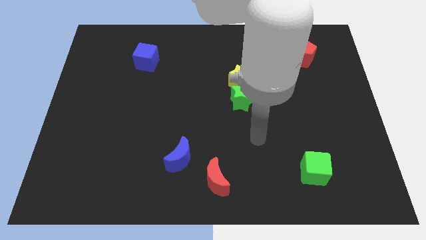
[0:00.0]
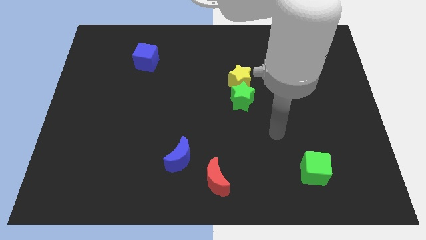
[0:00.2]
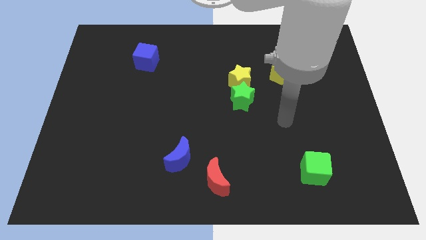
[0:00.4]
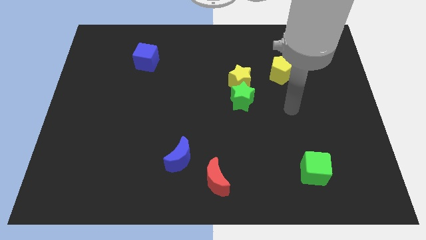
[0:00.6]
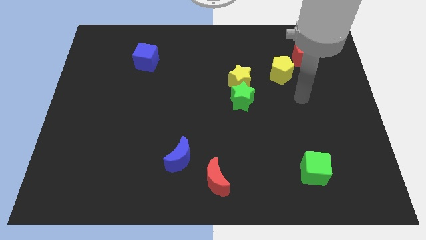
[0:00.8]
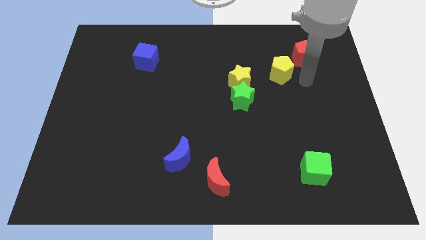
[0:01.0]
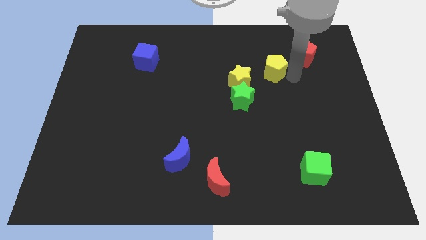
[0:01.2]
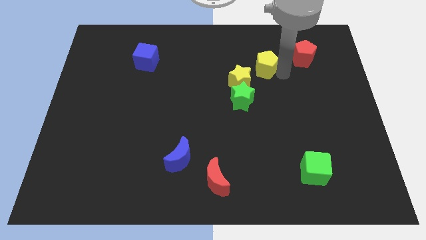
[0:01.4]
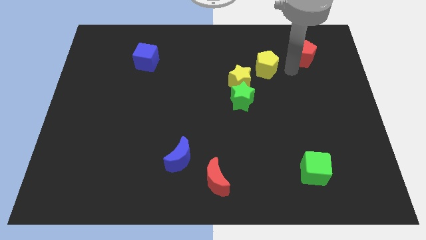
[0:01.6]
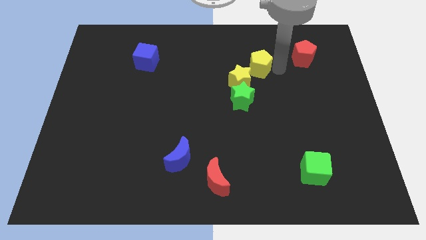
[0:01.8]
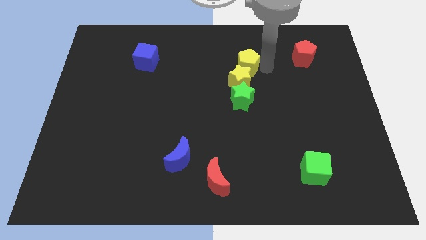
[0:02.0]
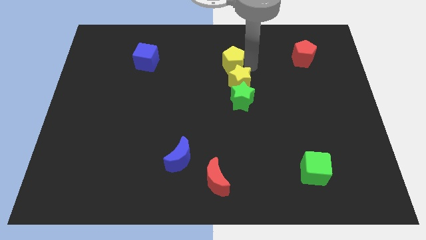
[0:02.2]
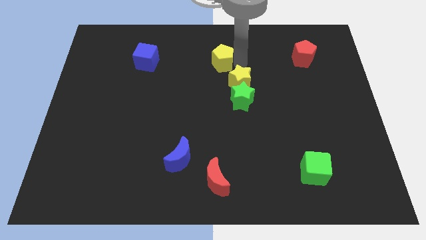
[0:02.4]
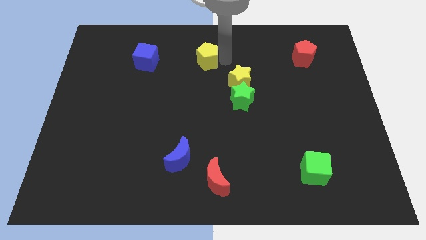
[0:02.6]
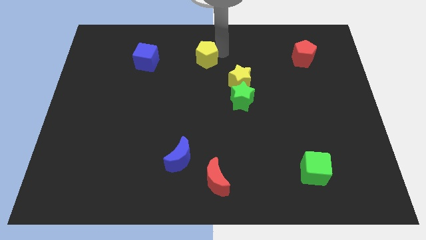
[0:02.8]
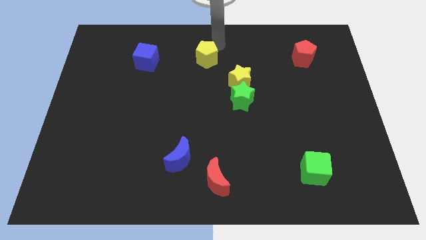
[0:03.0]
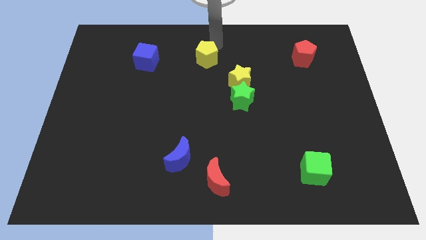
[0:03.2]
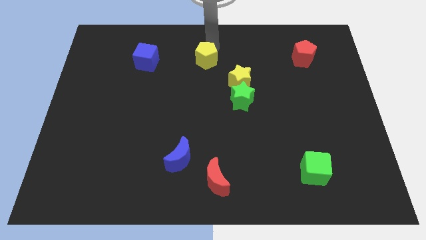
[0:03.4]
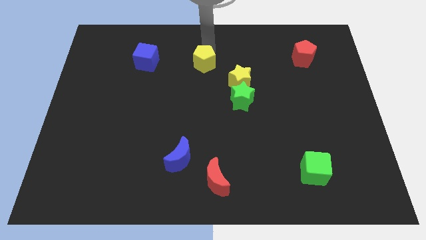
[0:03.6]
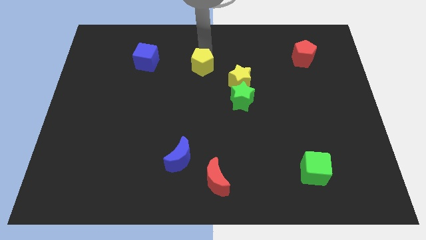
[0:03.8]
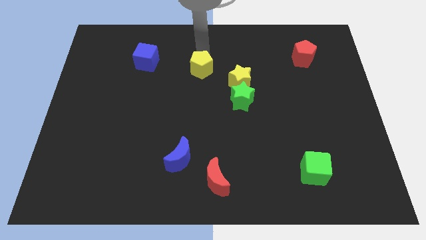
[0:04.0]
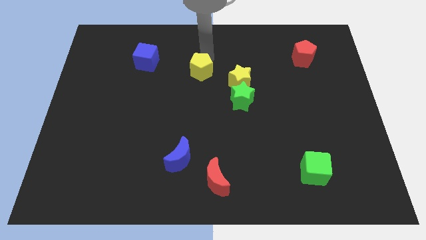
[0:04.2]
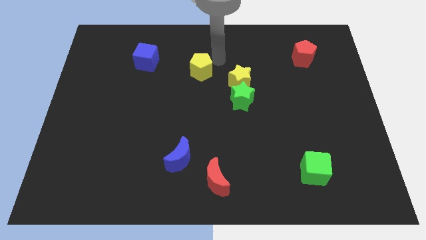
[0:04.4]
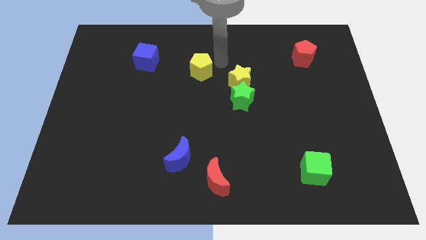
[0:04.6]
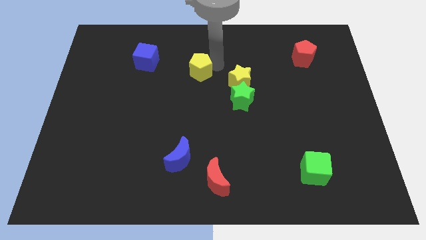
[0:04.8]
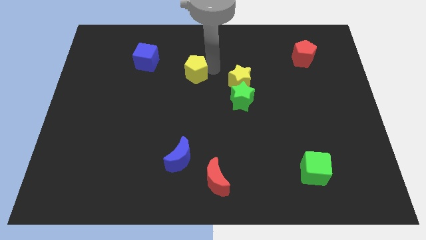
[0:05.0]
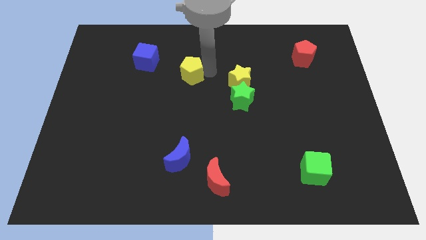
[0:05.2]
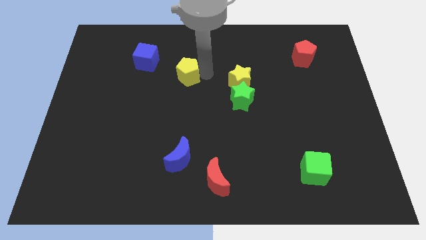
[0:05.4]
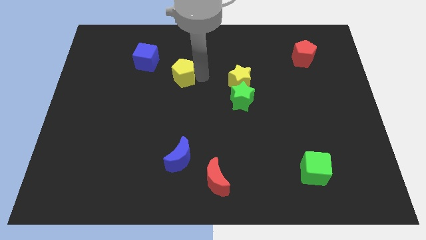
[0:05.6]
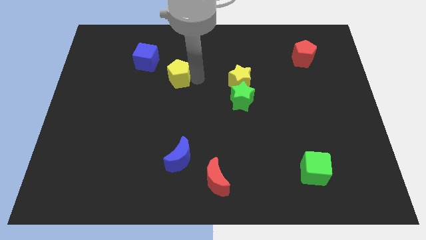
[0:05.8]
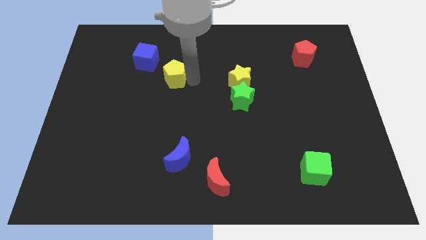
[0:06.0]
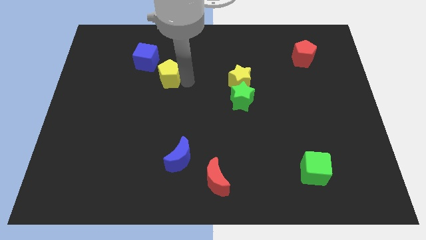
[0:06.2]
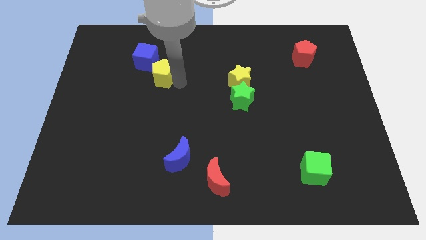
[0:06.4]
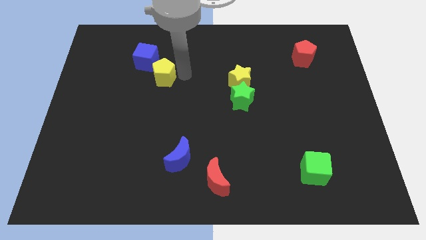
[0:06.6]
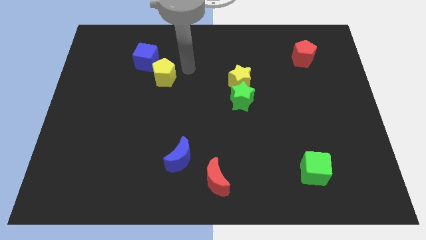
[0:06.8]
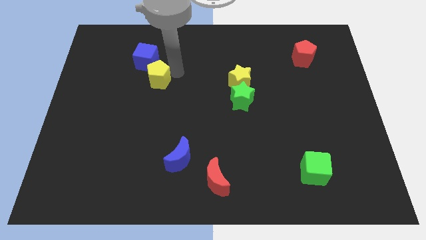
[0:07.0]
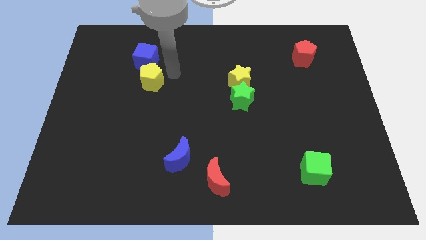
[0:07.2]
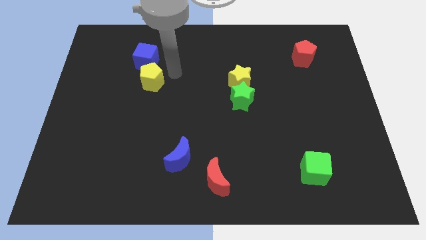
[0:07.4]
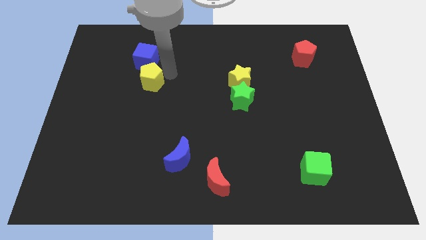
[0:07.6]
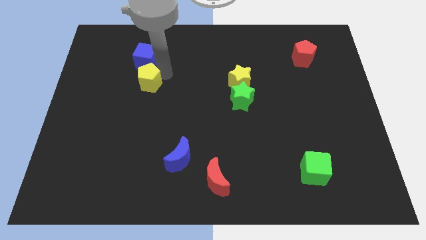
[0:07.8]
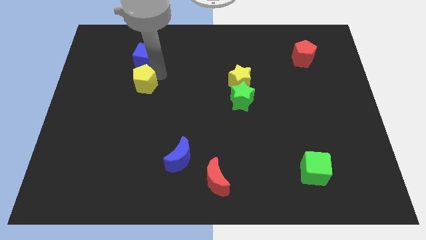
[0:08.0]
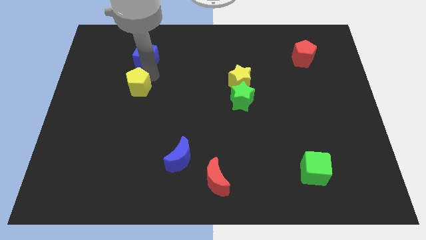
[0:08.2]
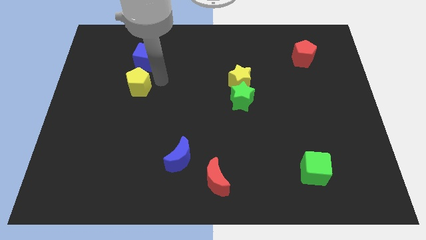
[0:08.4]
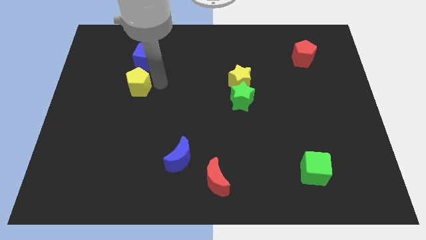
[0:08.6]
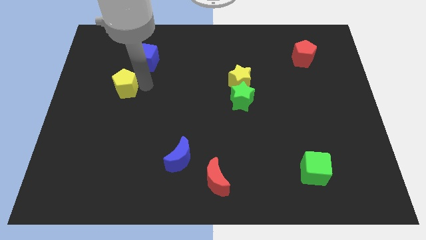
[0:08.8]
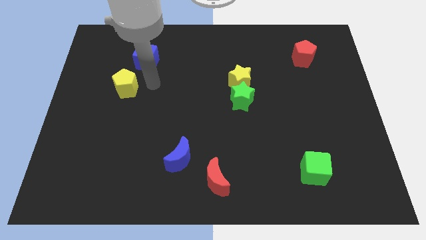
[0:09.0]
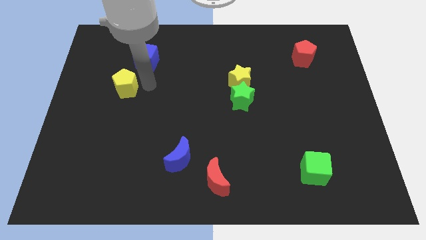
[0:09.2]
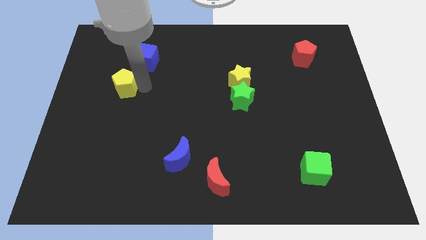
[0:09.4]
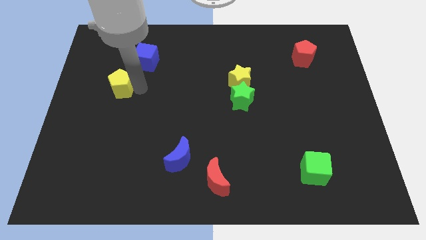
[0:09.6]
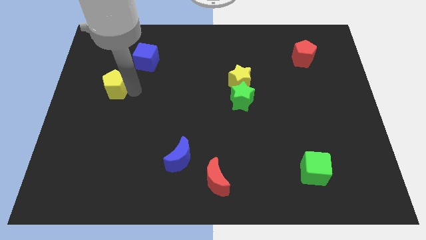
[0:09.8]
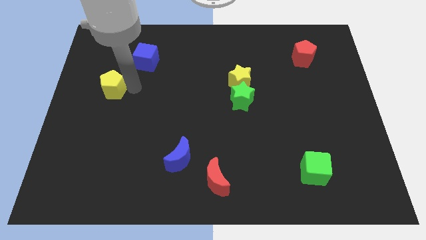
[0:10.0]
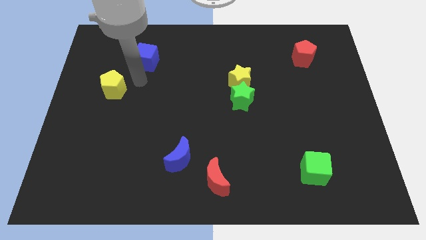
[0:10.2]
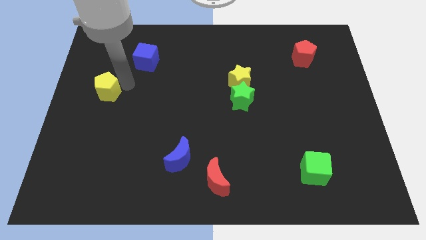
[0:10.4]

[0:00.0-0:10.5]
put the yellow pentagon to the left side of the board

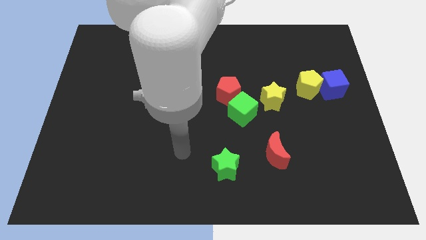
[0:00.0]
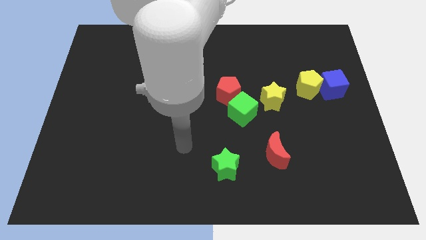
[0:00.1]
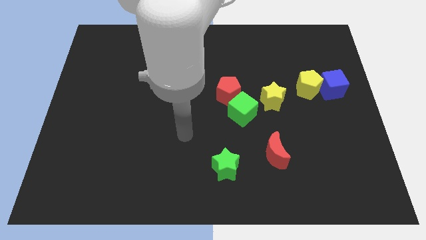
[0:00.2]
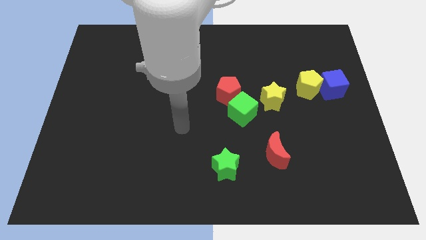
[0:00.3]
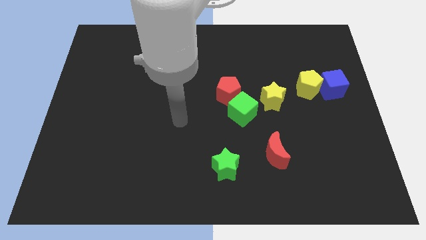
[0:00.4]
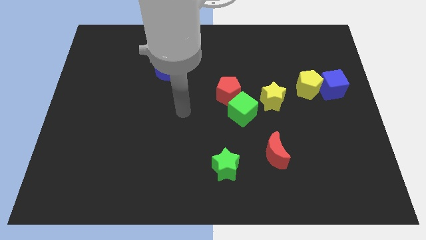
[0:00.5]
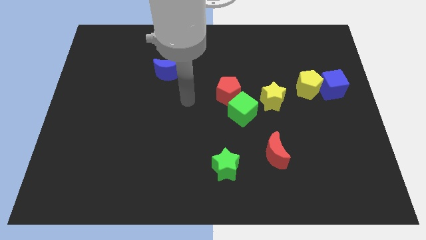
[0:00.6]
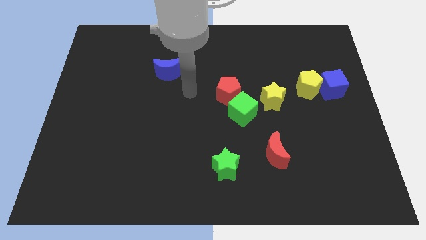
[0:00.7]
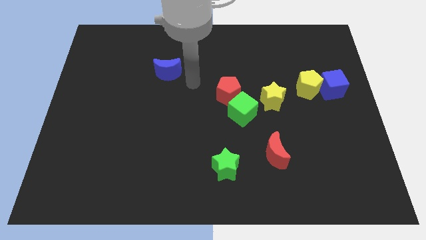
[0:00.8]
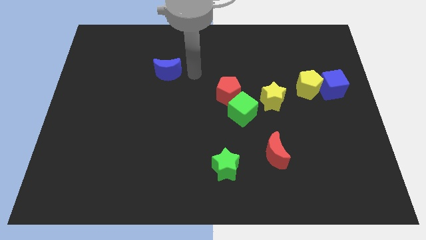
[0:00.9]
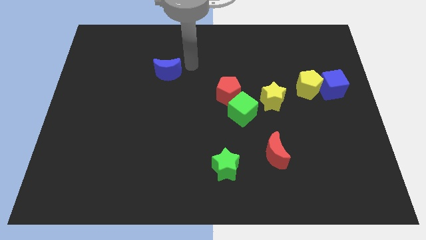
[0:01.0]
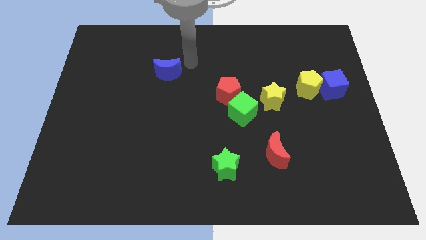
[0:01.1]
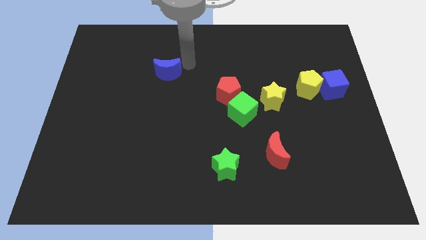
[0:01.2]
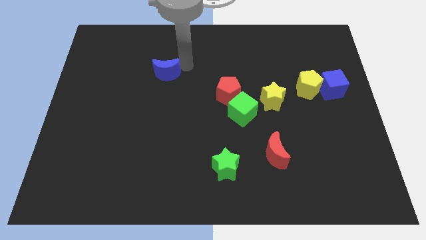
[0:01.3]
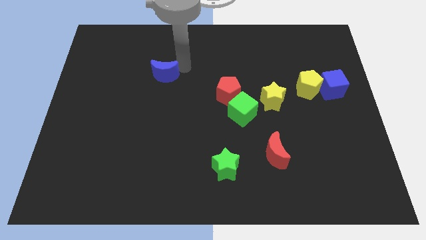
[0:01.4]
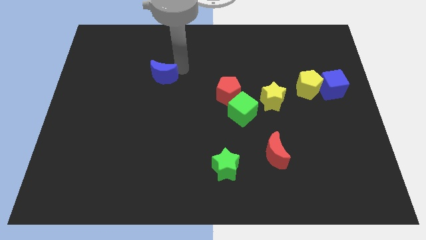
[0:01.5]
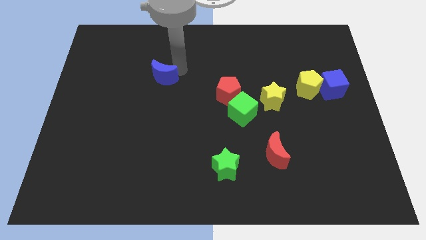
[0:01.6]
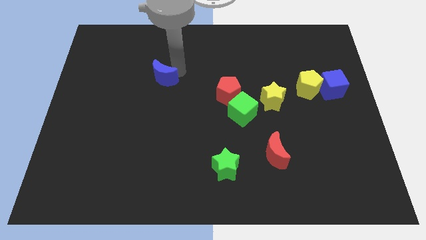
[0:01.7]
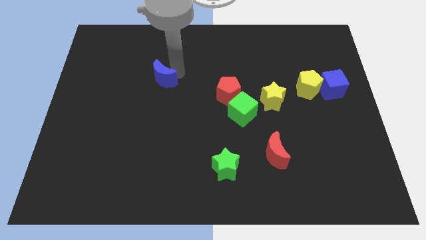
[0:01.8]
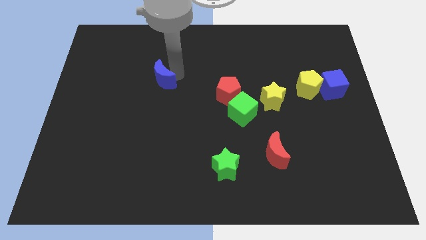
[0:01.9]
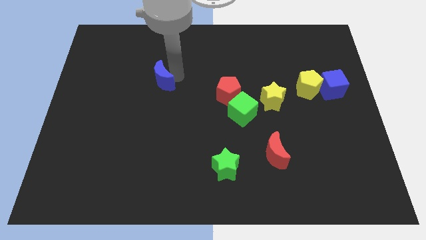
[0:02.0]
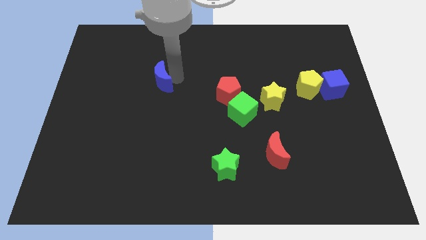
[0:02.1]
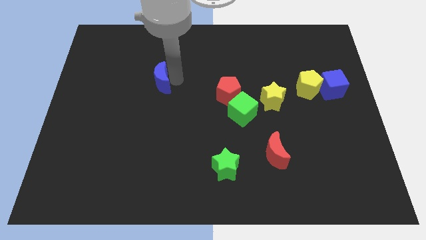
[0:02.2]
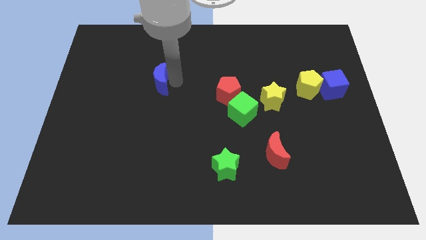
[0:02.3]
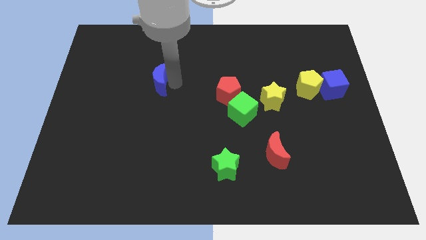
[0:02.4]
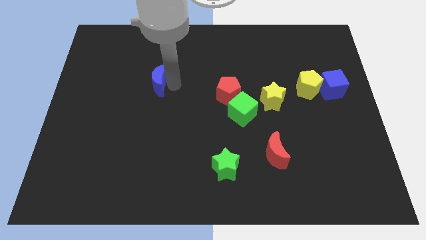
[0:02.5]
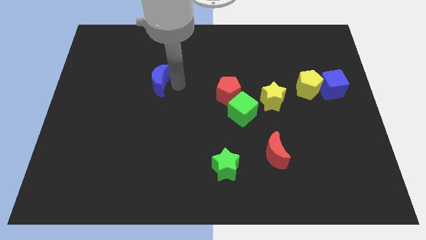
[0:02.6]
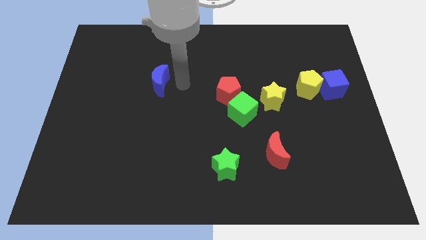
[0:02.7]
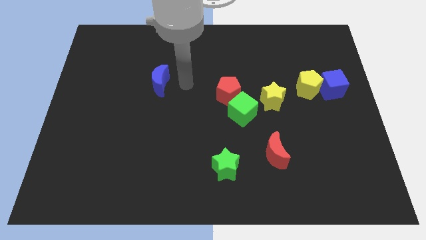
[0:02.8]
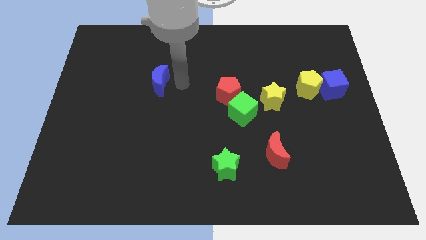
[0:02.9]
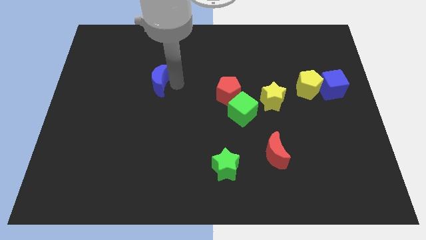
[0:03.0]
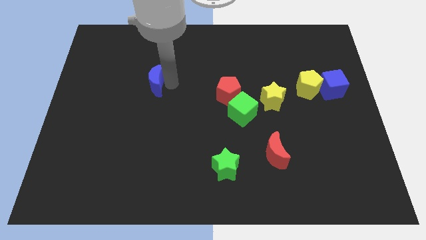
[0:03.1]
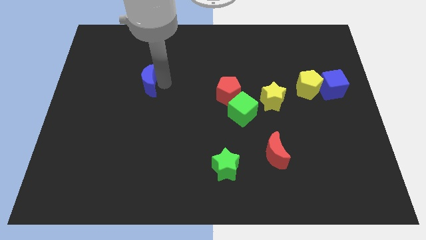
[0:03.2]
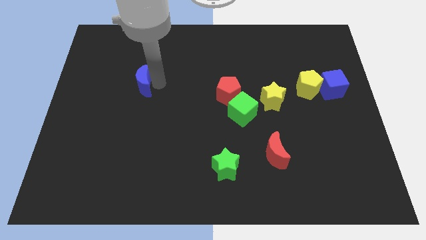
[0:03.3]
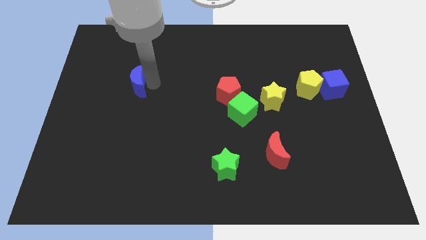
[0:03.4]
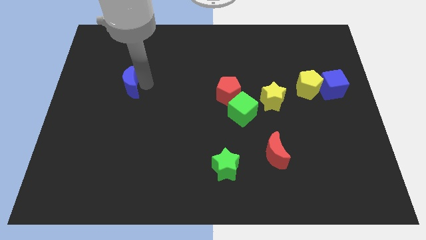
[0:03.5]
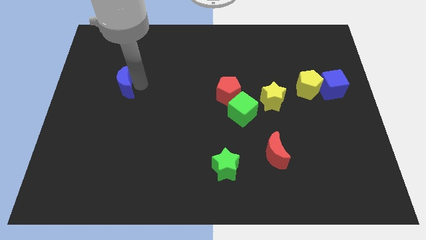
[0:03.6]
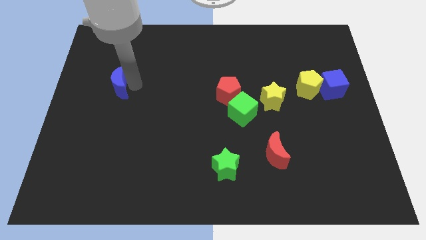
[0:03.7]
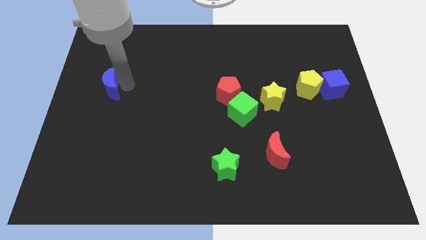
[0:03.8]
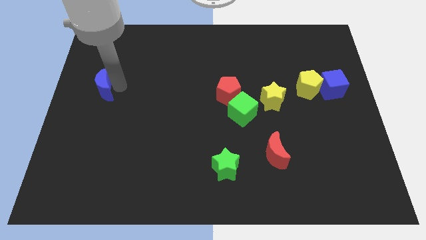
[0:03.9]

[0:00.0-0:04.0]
push the blue moon to the left side
